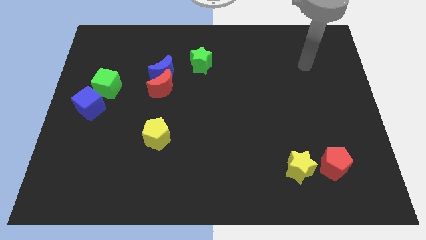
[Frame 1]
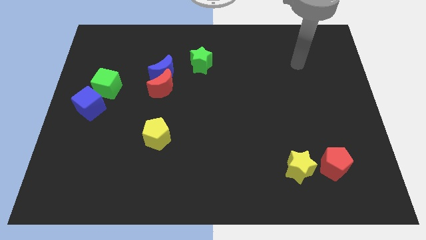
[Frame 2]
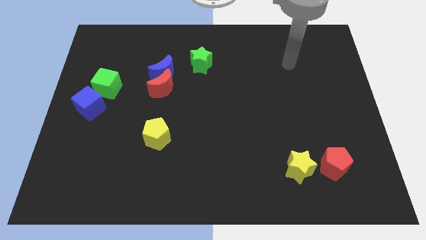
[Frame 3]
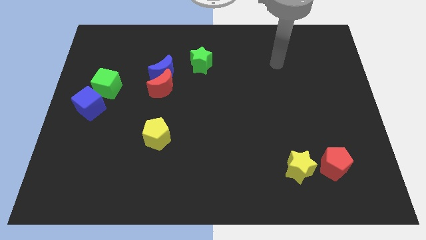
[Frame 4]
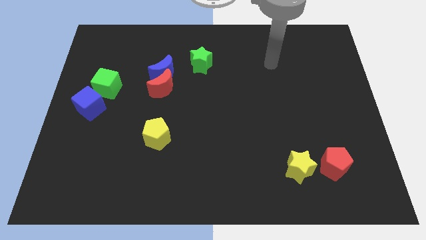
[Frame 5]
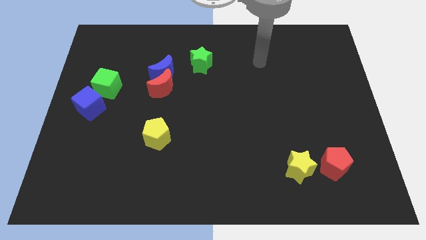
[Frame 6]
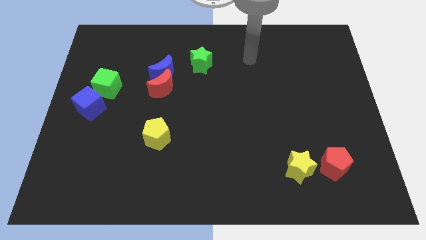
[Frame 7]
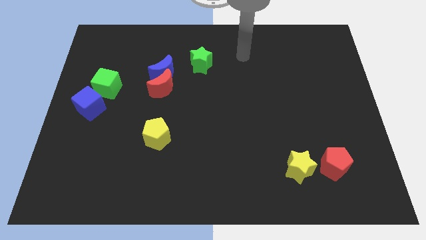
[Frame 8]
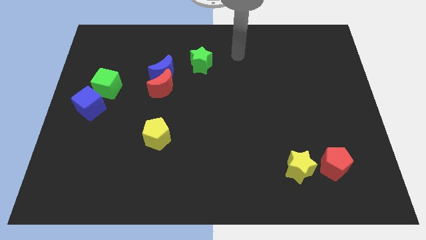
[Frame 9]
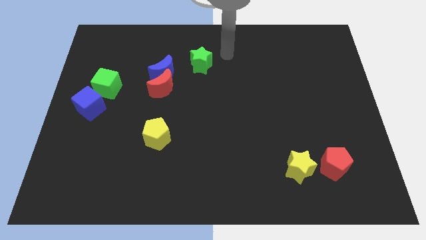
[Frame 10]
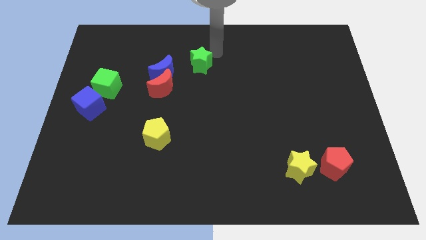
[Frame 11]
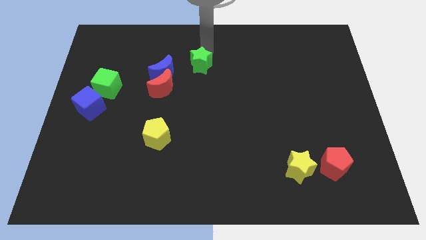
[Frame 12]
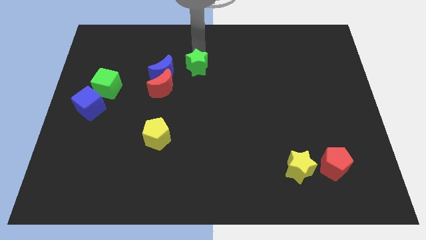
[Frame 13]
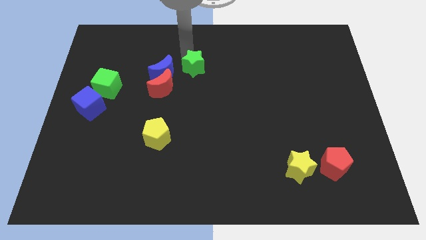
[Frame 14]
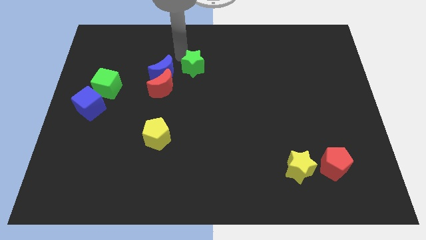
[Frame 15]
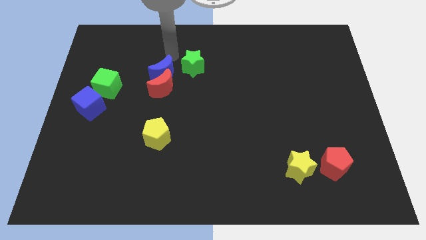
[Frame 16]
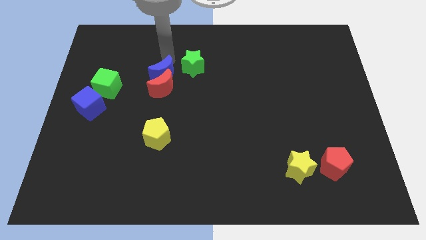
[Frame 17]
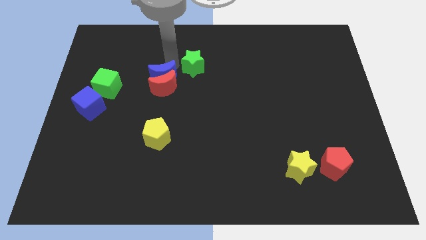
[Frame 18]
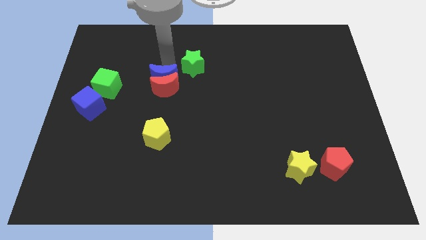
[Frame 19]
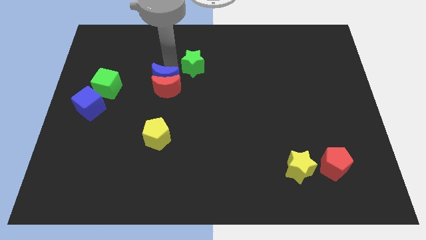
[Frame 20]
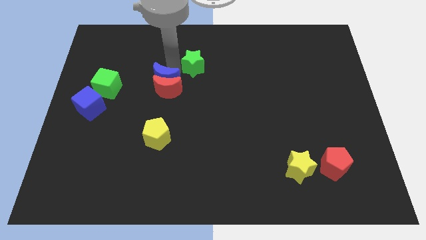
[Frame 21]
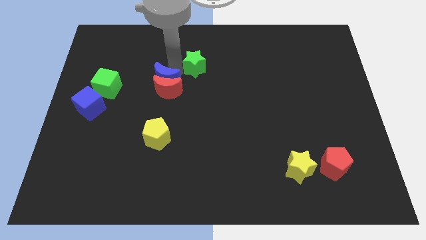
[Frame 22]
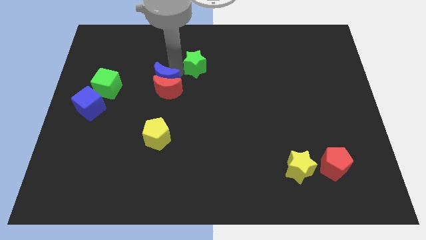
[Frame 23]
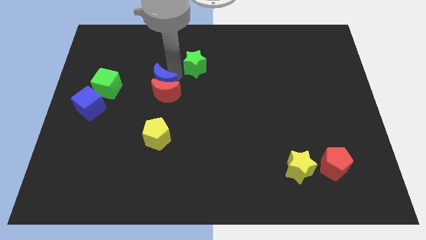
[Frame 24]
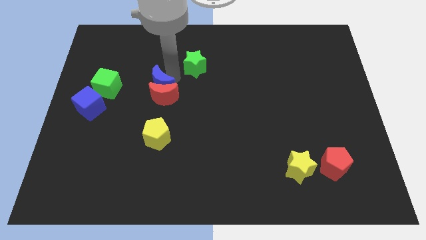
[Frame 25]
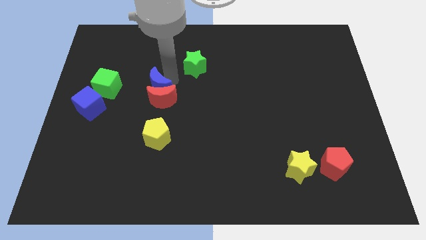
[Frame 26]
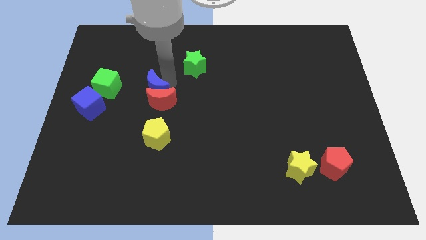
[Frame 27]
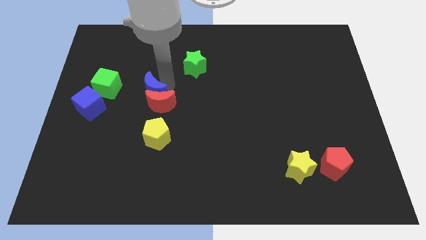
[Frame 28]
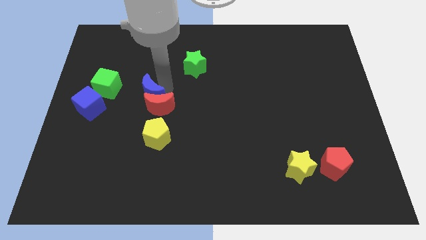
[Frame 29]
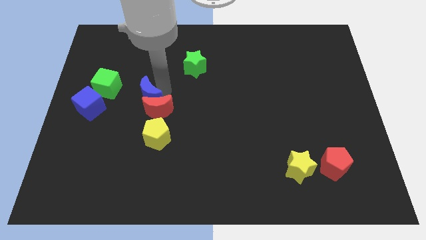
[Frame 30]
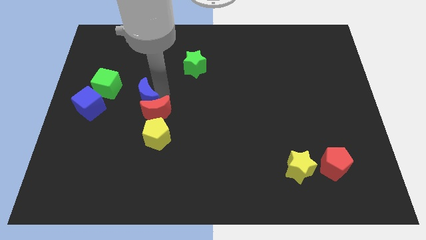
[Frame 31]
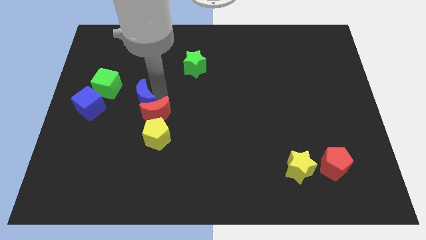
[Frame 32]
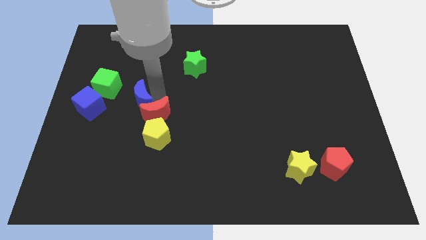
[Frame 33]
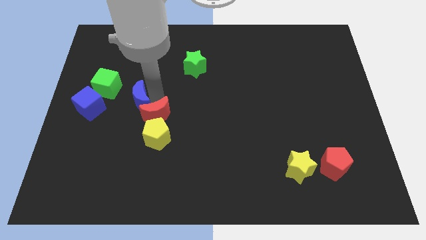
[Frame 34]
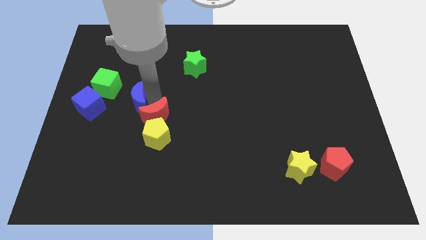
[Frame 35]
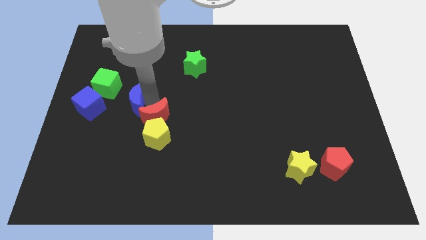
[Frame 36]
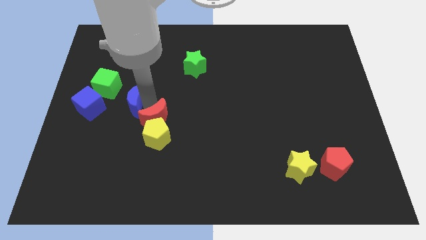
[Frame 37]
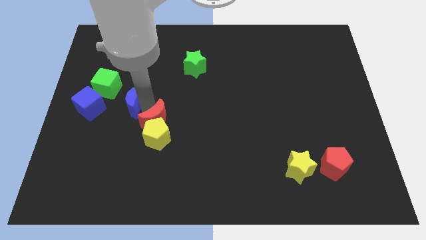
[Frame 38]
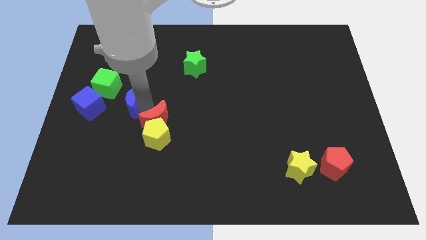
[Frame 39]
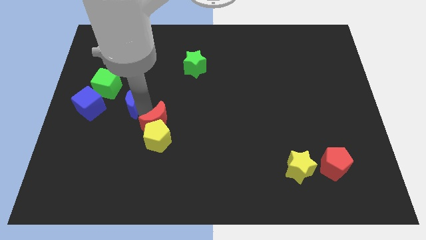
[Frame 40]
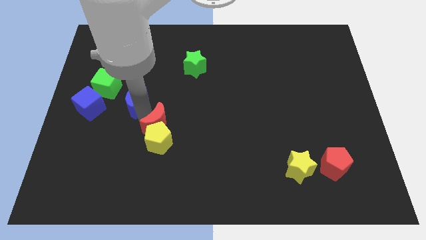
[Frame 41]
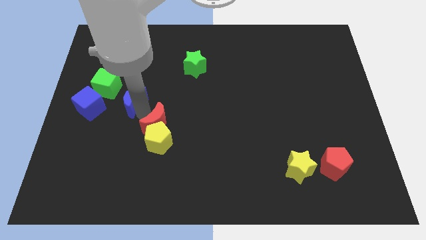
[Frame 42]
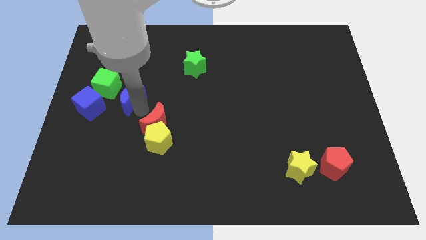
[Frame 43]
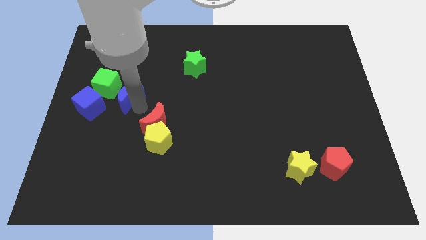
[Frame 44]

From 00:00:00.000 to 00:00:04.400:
separate the red moon from the blue moon

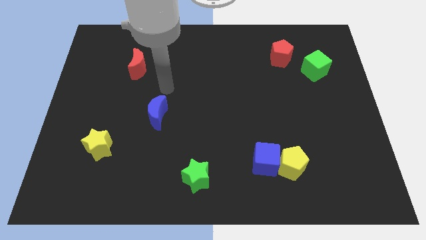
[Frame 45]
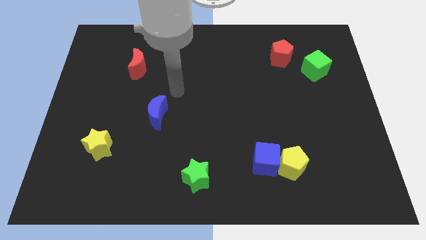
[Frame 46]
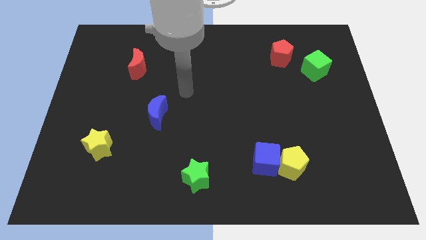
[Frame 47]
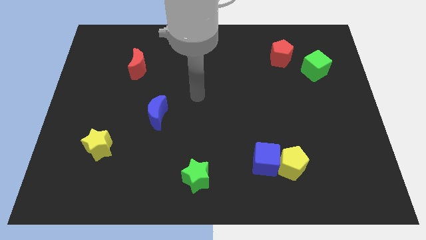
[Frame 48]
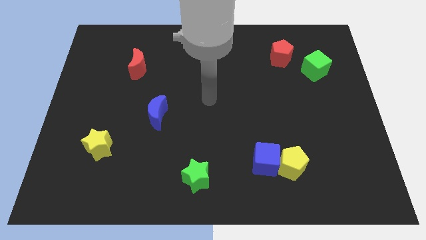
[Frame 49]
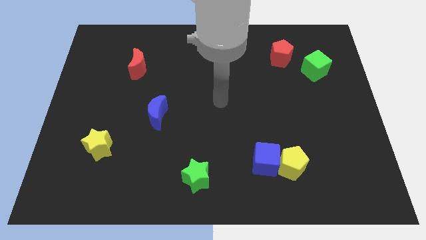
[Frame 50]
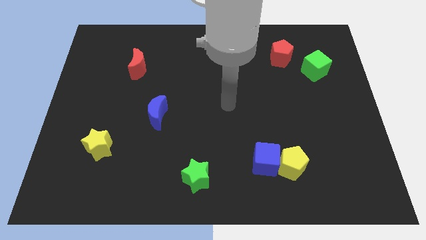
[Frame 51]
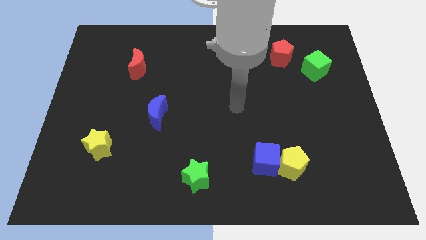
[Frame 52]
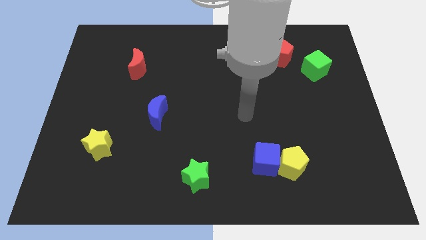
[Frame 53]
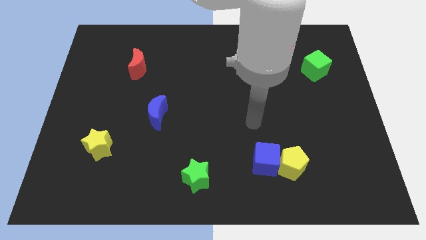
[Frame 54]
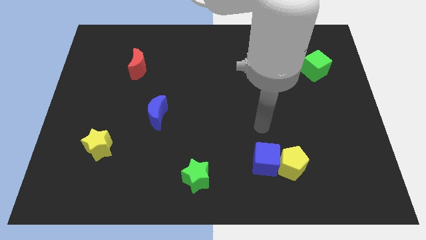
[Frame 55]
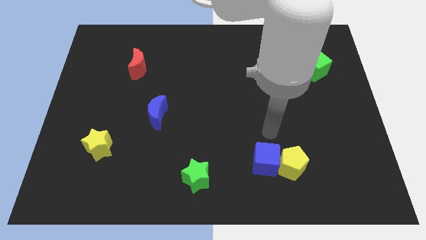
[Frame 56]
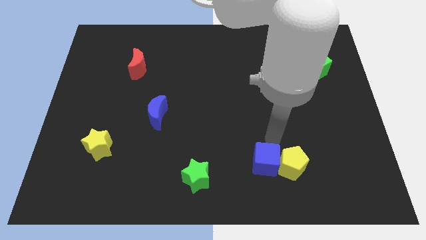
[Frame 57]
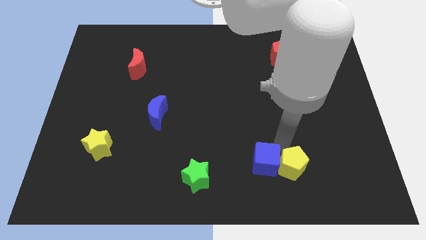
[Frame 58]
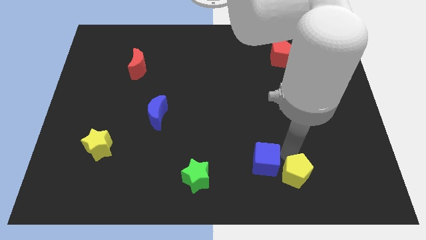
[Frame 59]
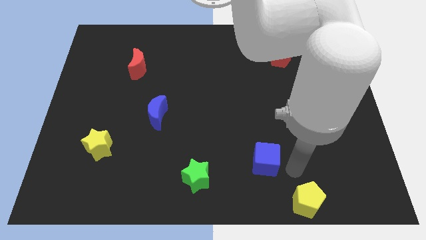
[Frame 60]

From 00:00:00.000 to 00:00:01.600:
separate the blue cube from the yellow pentagon

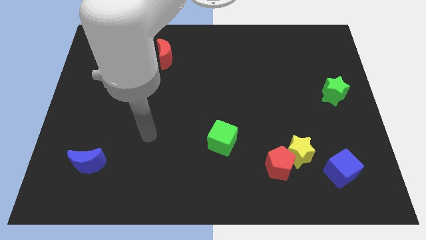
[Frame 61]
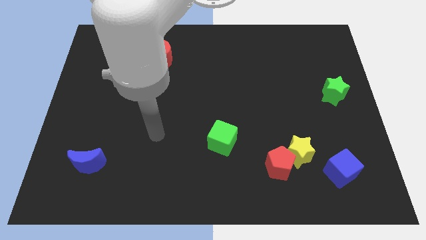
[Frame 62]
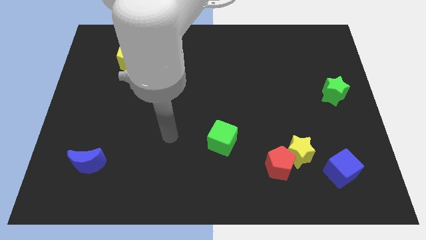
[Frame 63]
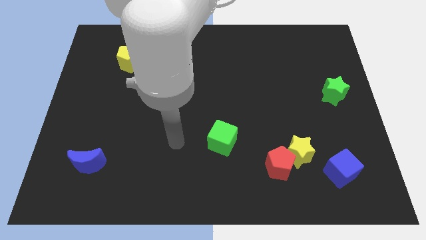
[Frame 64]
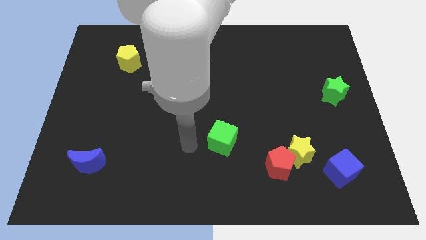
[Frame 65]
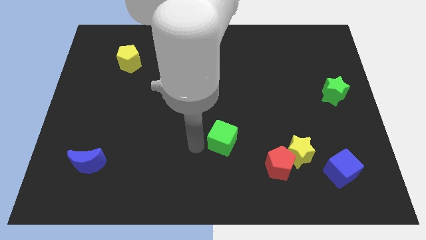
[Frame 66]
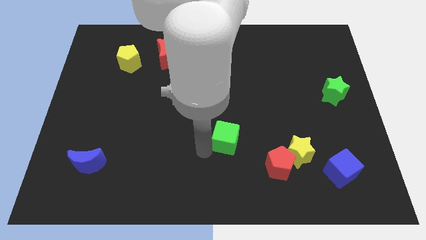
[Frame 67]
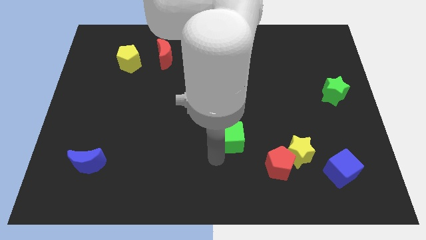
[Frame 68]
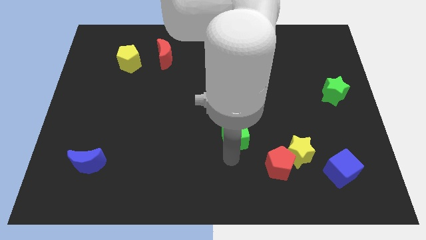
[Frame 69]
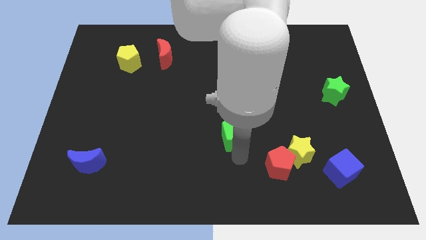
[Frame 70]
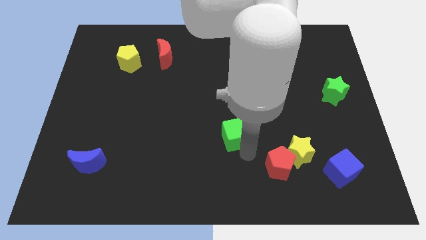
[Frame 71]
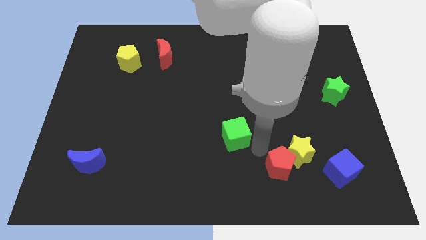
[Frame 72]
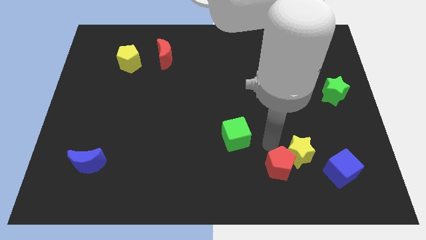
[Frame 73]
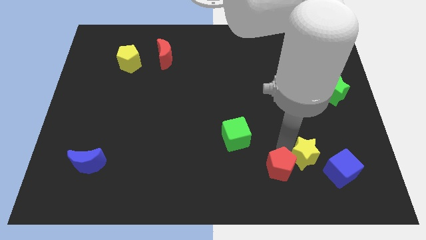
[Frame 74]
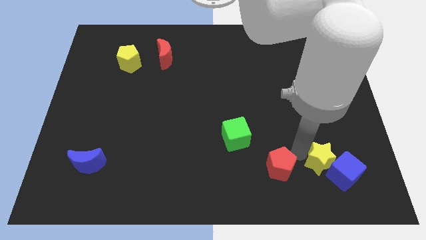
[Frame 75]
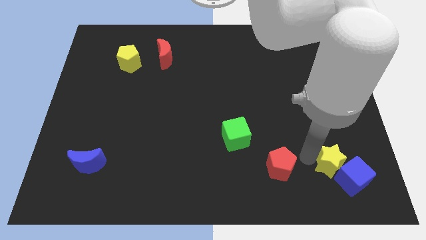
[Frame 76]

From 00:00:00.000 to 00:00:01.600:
separate the red pentagon from the yellow star

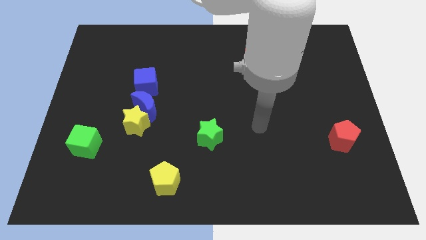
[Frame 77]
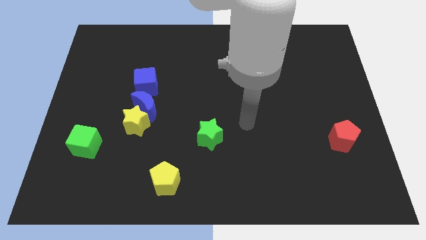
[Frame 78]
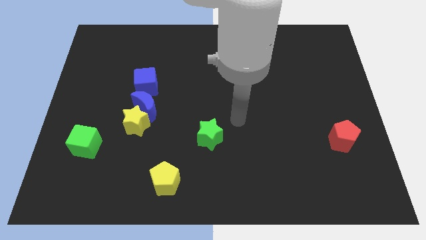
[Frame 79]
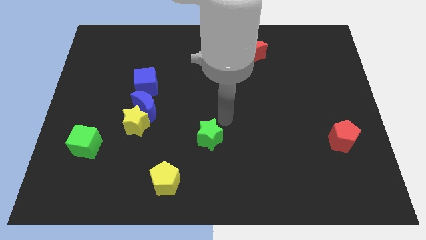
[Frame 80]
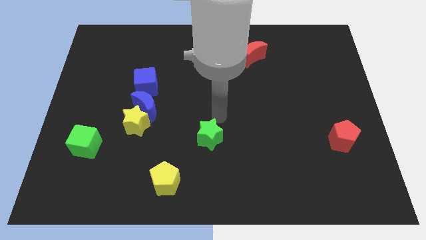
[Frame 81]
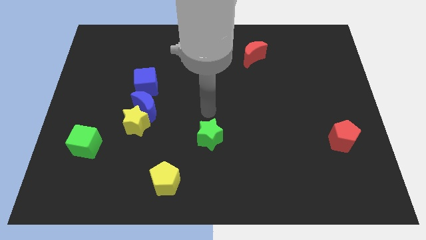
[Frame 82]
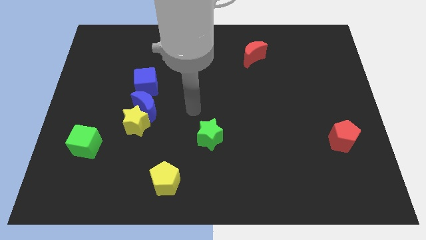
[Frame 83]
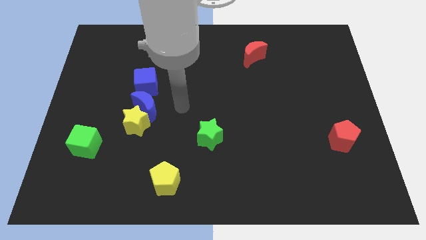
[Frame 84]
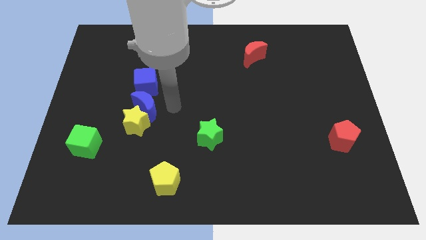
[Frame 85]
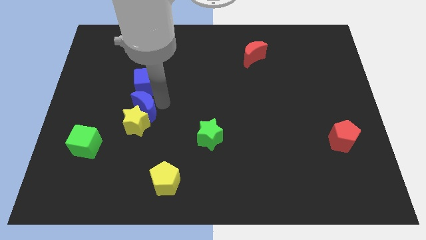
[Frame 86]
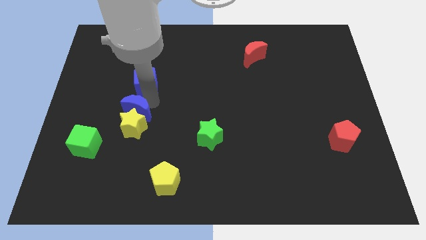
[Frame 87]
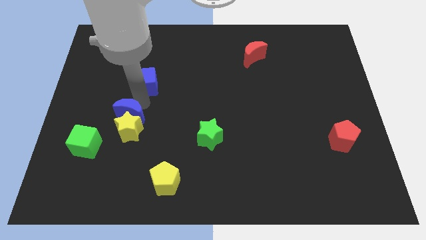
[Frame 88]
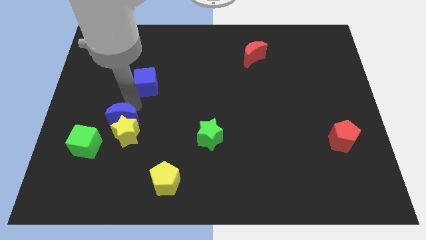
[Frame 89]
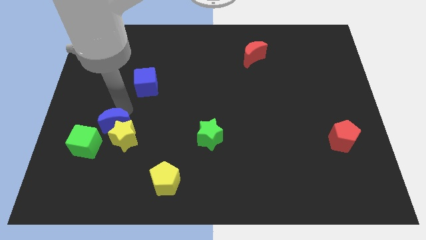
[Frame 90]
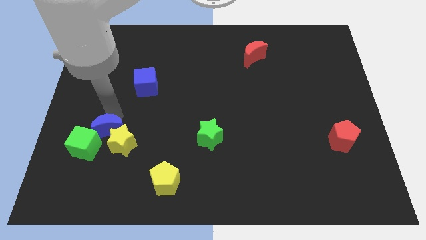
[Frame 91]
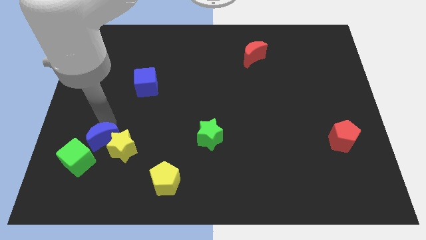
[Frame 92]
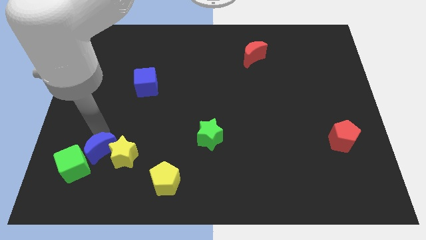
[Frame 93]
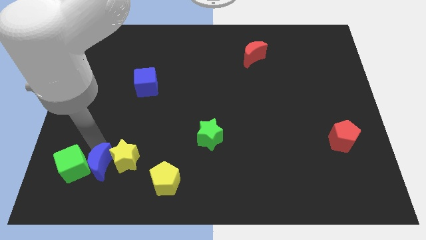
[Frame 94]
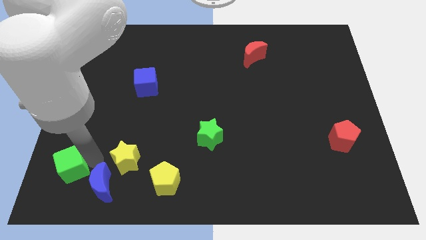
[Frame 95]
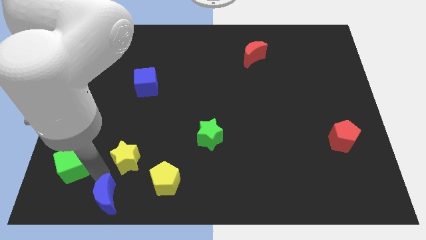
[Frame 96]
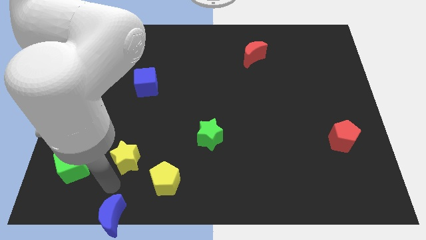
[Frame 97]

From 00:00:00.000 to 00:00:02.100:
pull the yellow star apart from the blue moon
